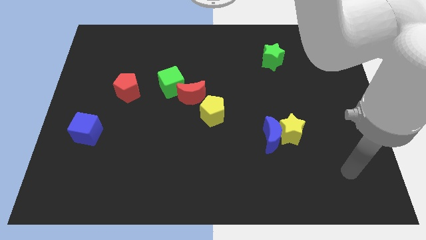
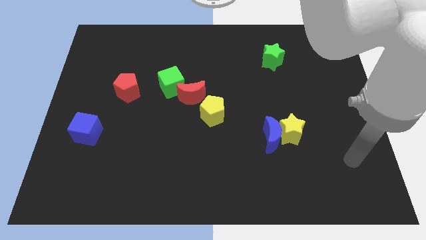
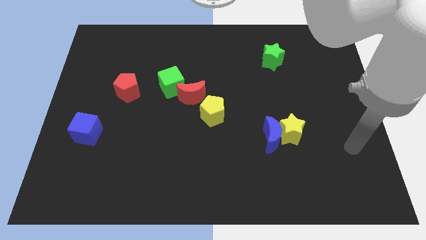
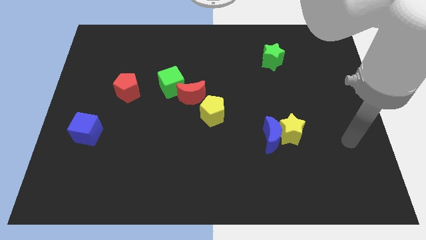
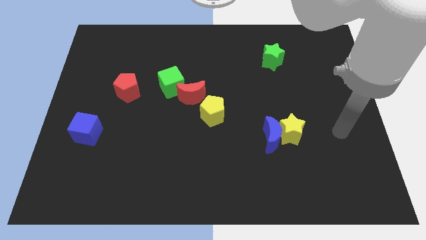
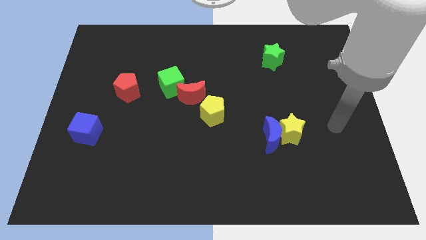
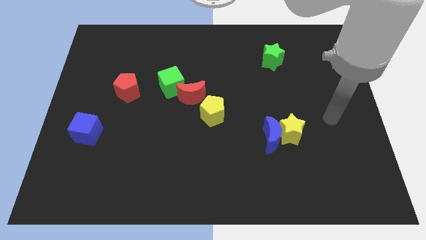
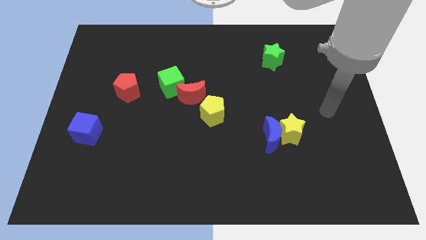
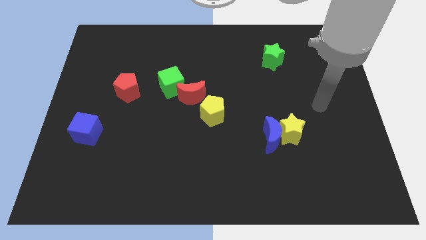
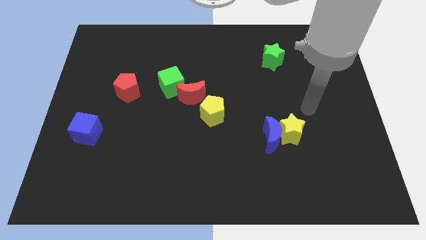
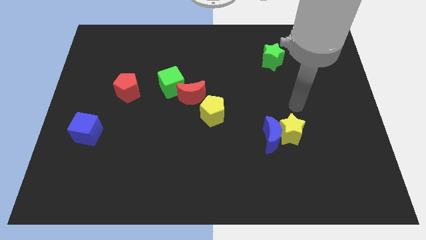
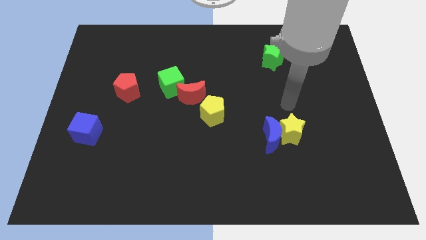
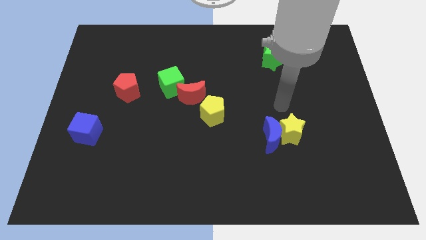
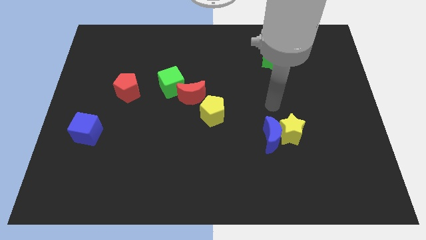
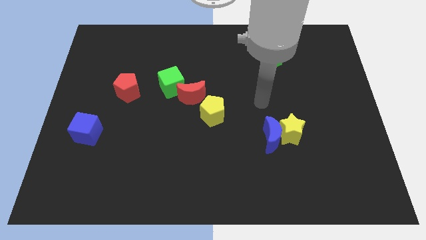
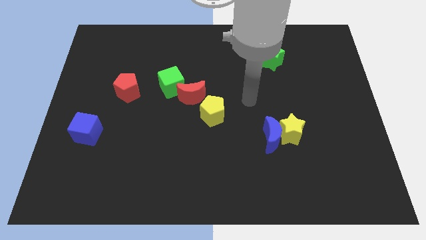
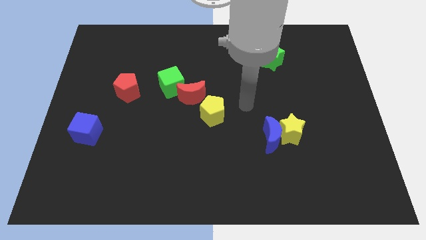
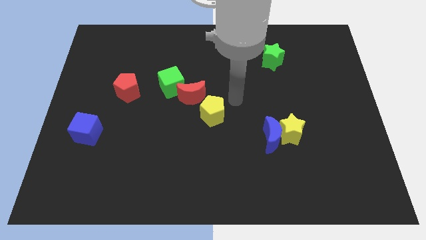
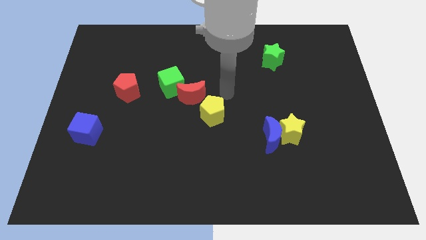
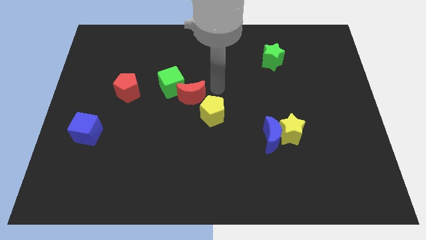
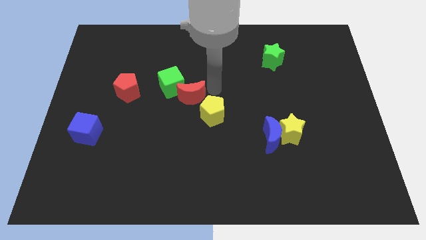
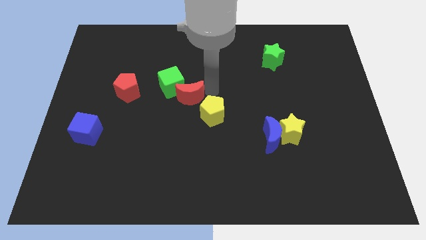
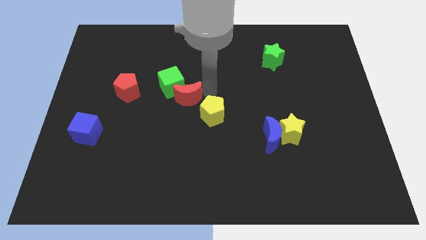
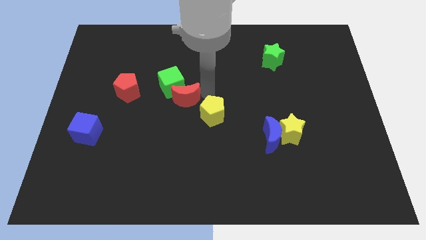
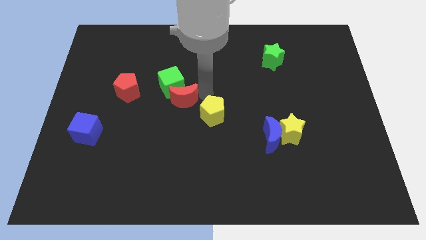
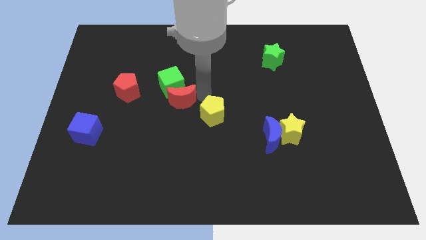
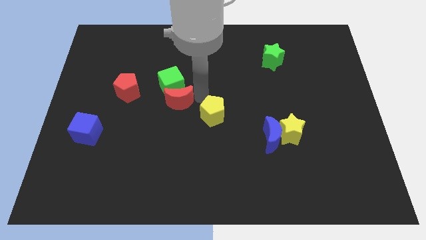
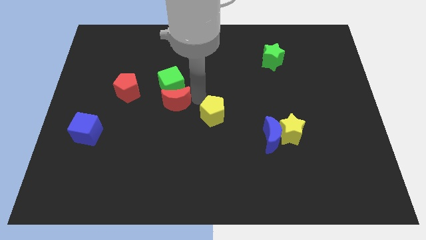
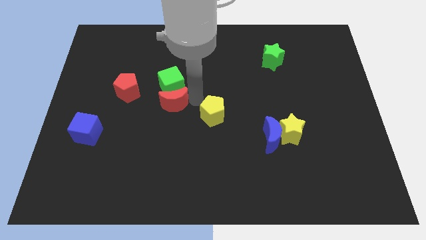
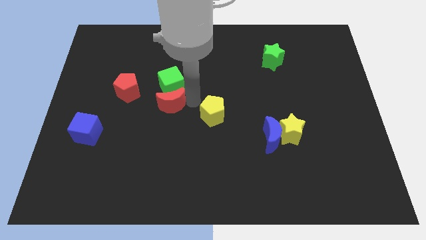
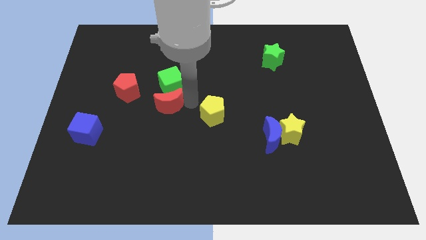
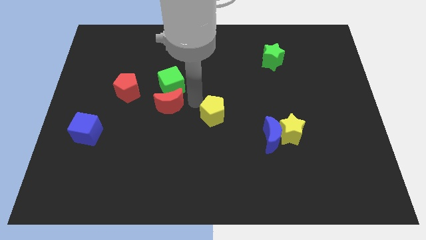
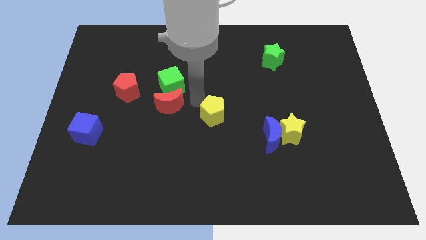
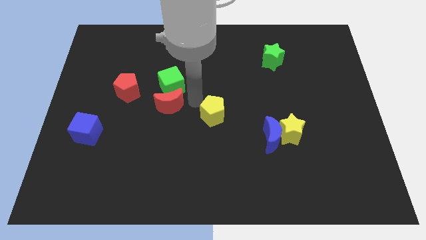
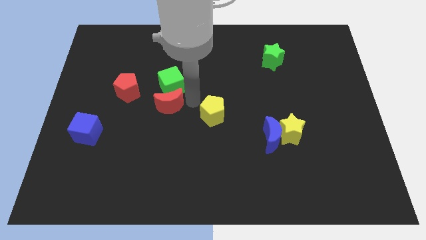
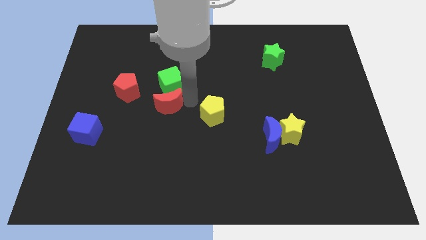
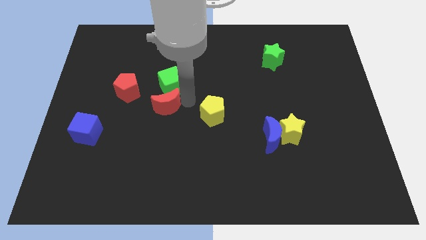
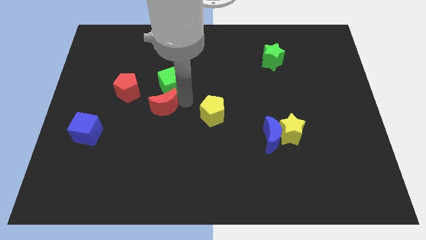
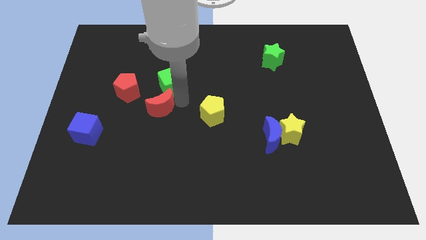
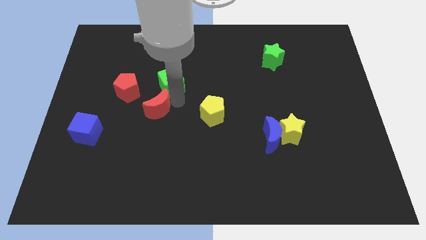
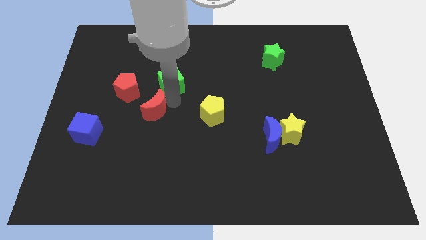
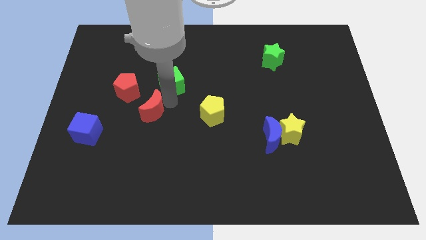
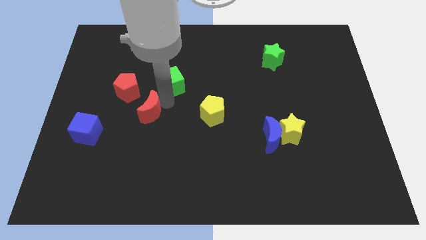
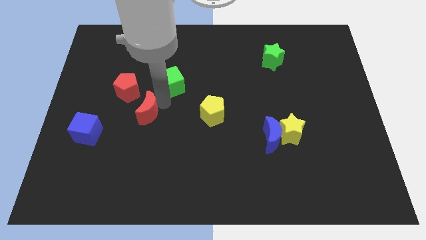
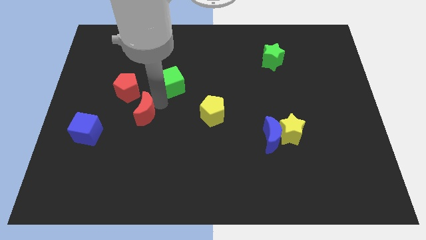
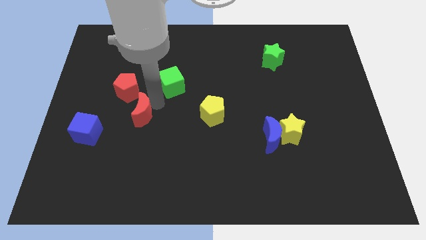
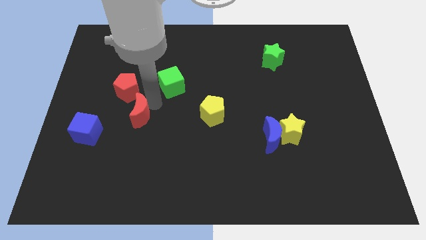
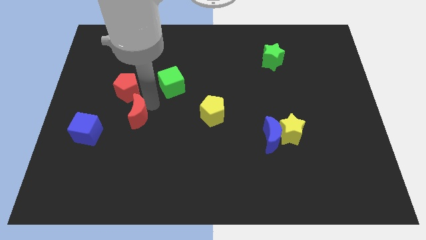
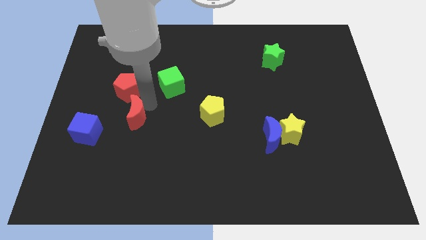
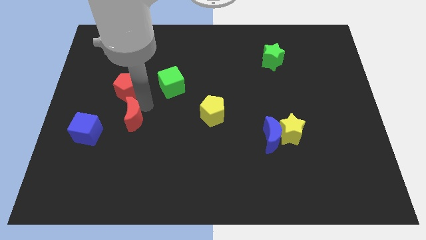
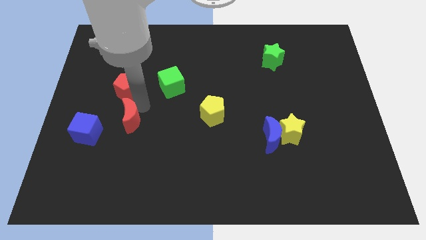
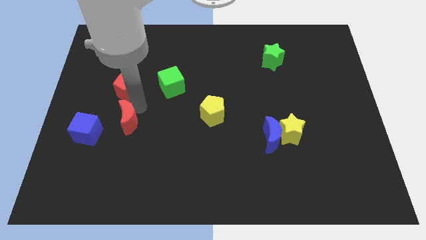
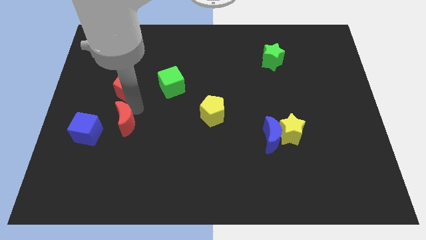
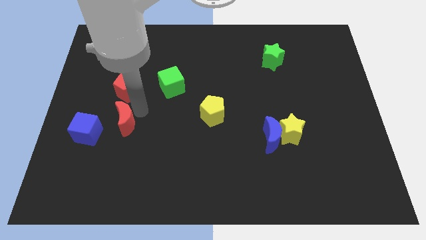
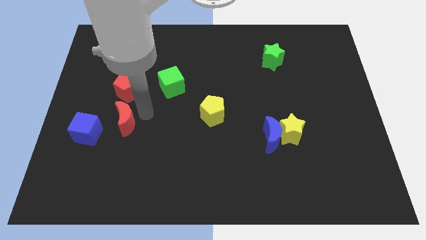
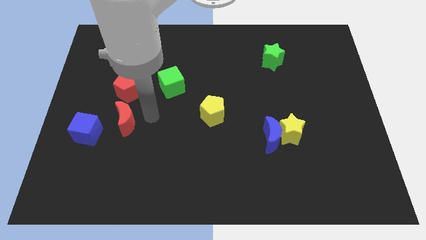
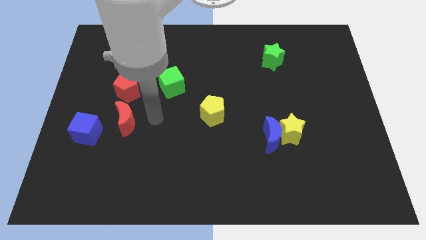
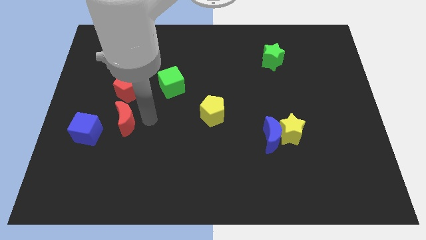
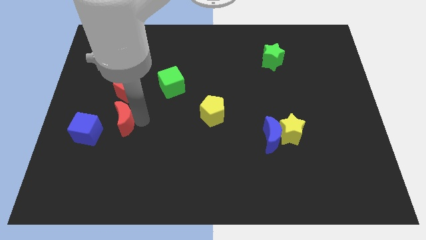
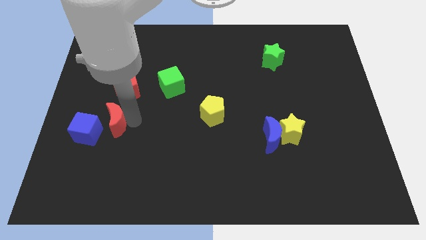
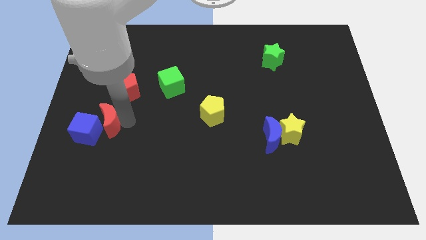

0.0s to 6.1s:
move the red moon towards the blue cube
